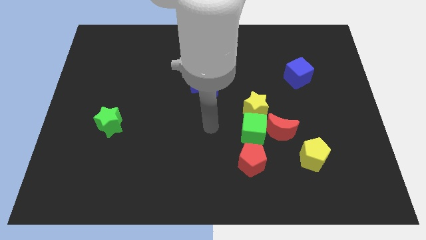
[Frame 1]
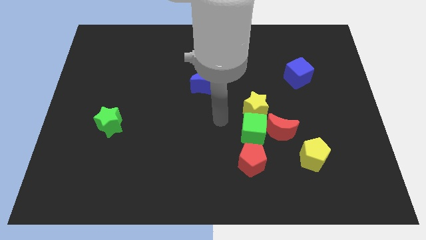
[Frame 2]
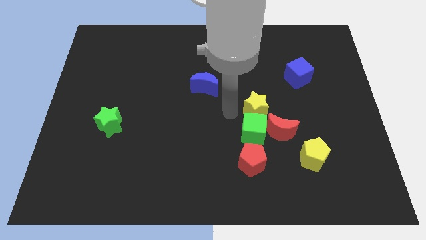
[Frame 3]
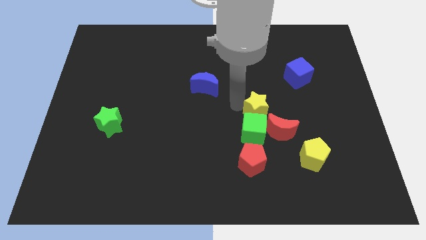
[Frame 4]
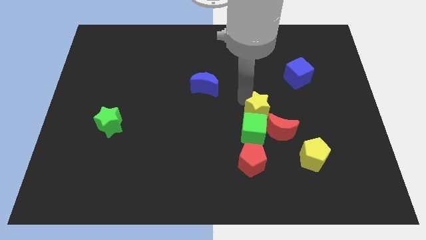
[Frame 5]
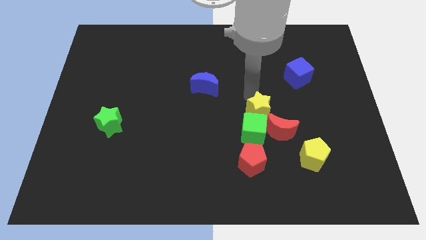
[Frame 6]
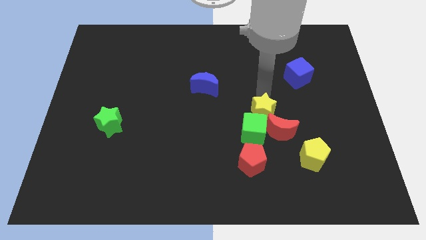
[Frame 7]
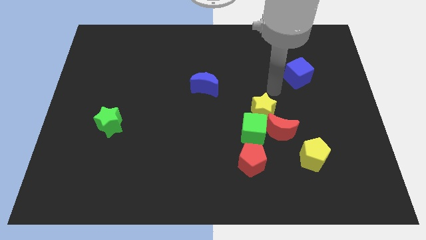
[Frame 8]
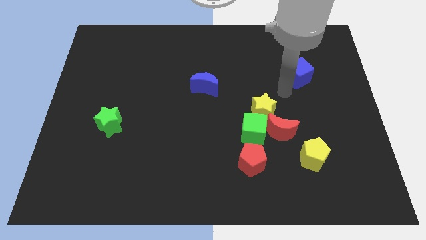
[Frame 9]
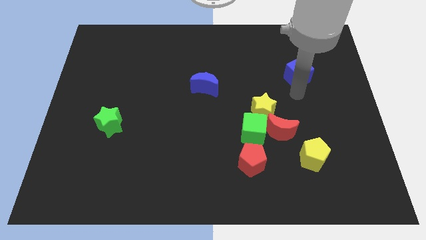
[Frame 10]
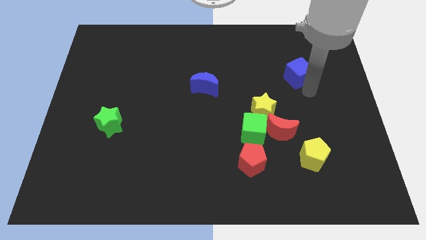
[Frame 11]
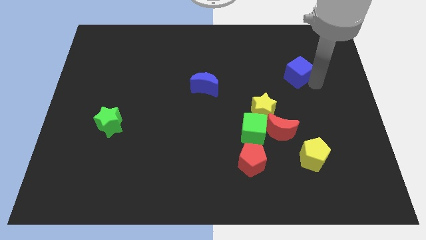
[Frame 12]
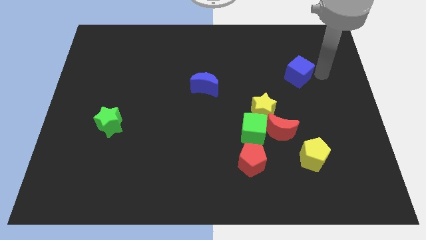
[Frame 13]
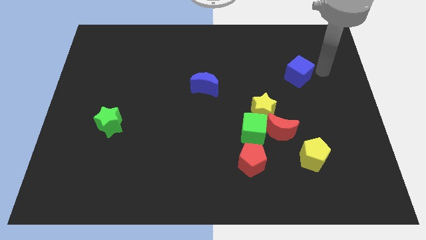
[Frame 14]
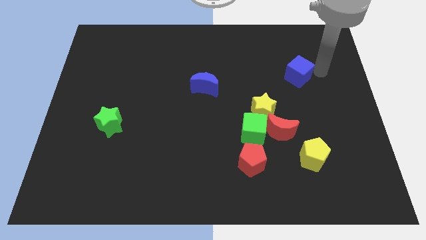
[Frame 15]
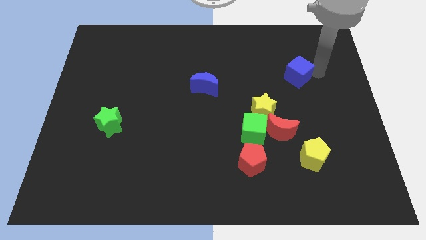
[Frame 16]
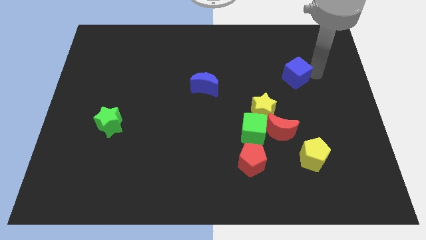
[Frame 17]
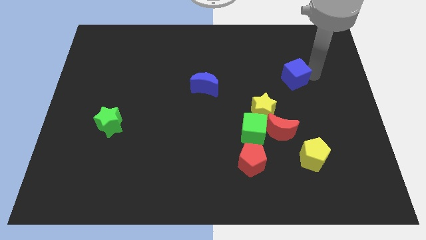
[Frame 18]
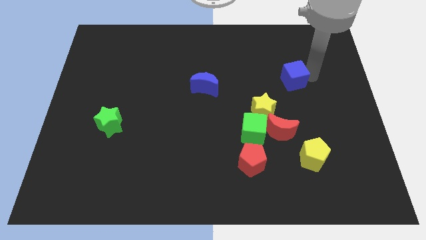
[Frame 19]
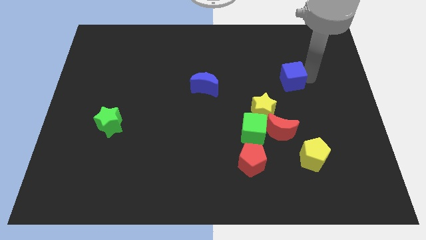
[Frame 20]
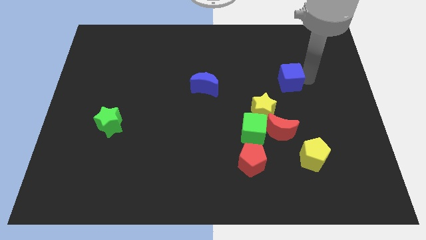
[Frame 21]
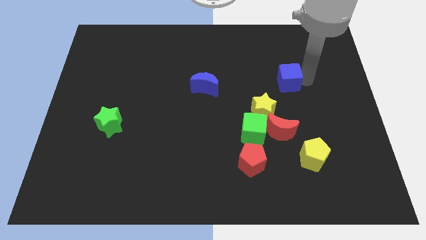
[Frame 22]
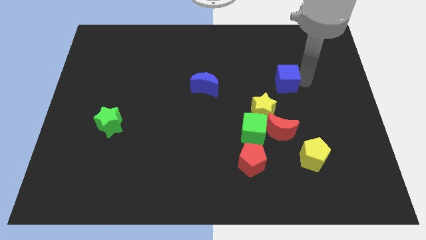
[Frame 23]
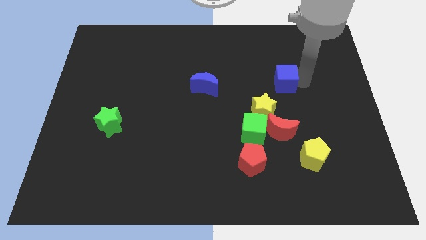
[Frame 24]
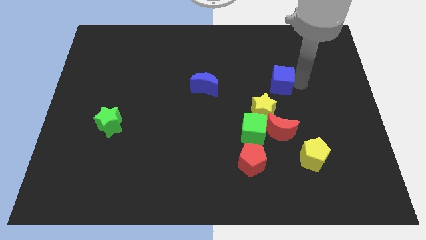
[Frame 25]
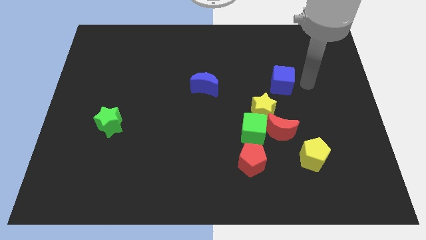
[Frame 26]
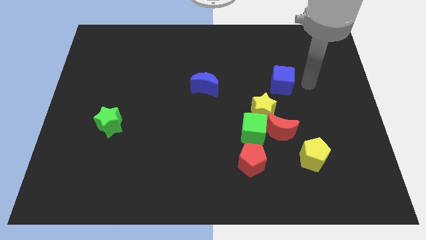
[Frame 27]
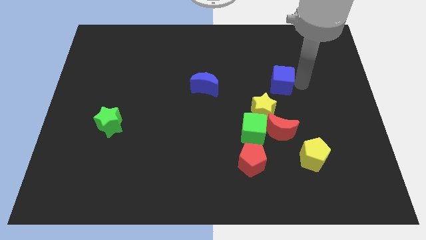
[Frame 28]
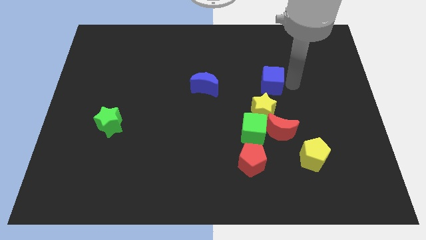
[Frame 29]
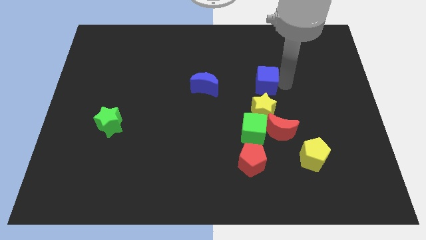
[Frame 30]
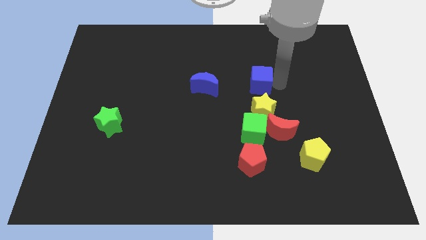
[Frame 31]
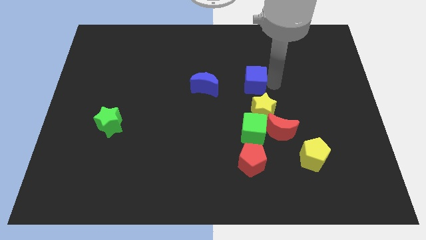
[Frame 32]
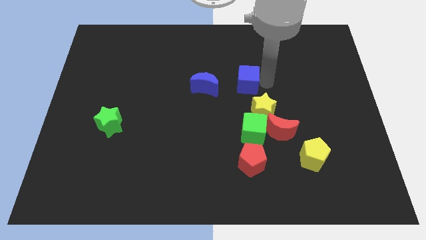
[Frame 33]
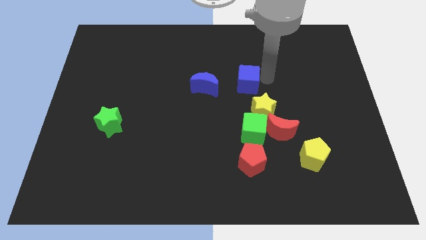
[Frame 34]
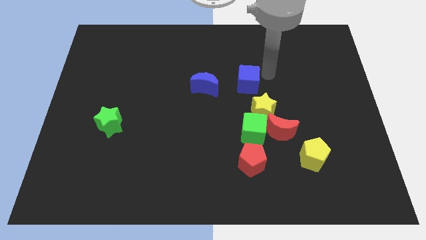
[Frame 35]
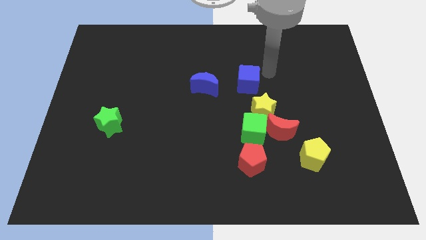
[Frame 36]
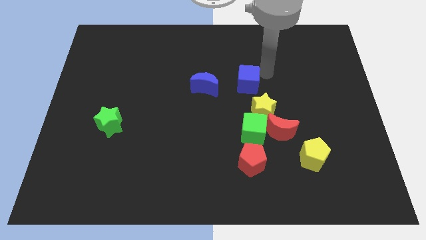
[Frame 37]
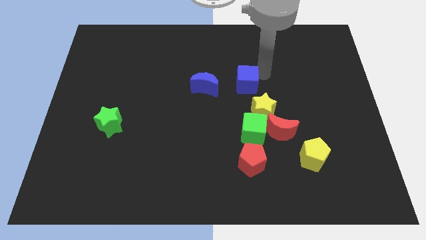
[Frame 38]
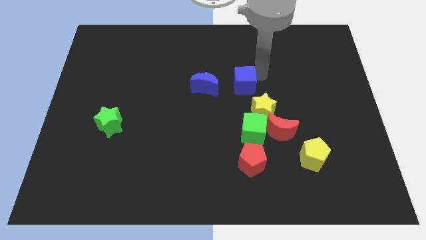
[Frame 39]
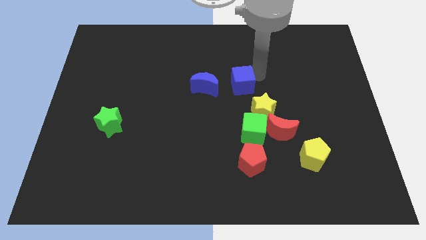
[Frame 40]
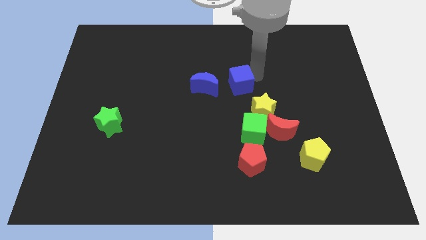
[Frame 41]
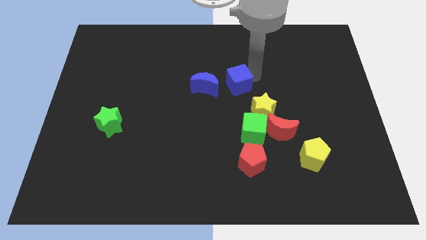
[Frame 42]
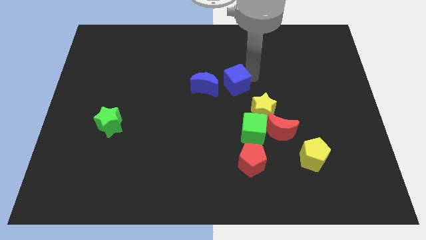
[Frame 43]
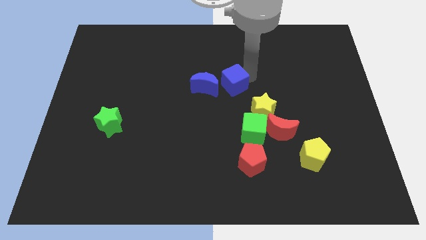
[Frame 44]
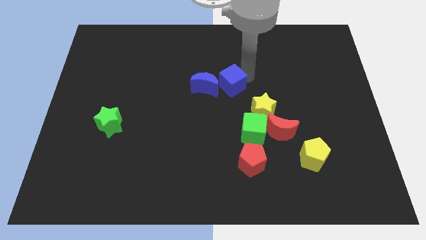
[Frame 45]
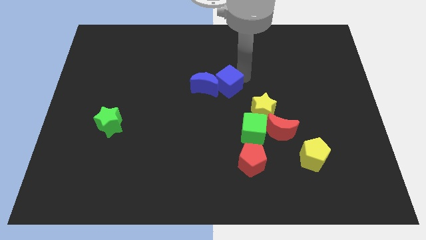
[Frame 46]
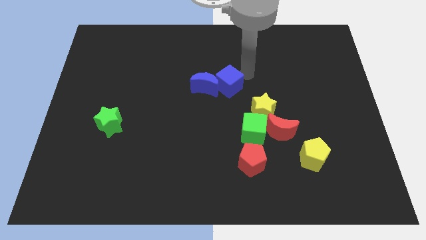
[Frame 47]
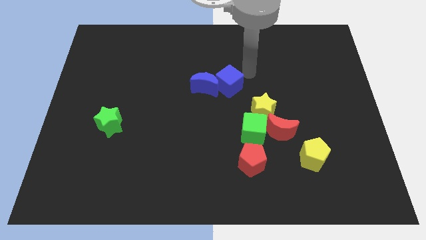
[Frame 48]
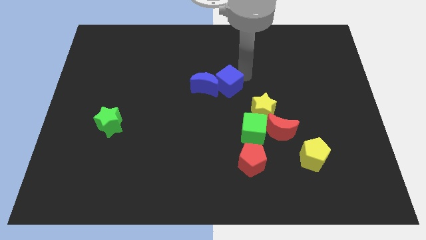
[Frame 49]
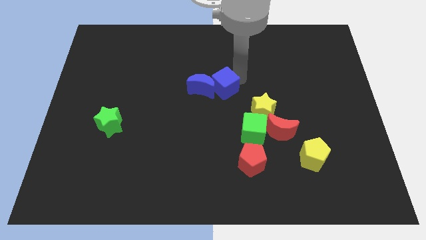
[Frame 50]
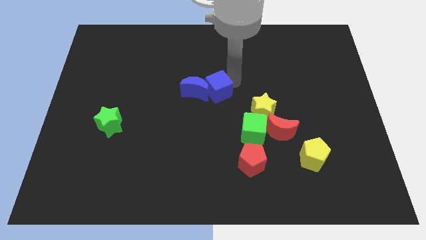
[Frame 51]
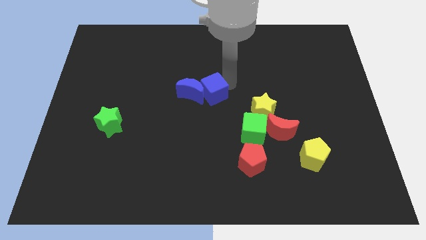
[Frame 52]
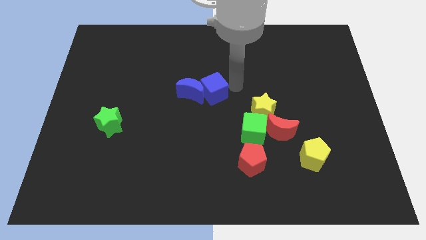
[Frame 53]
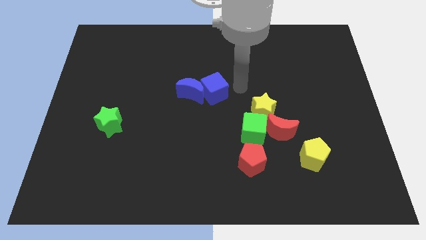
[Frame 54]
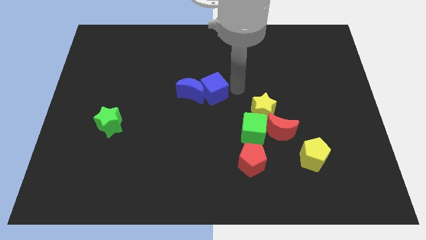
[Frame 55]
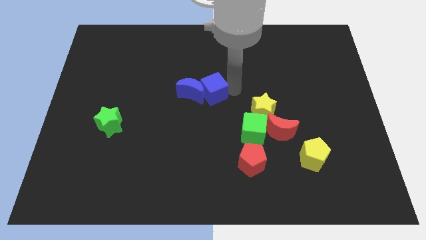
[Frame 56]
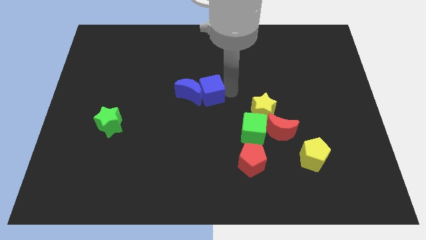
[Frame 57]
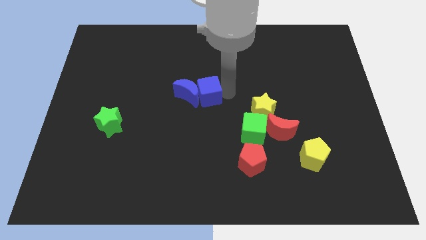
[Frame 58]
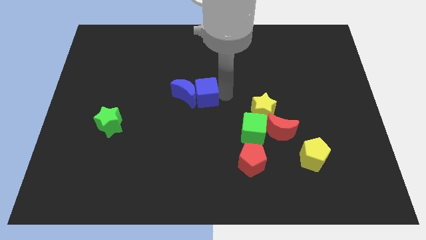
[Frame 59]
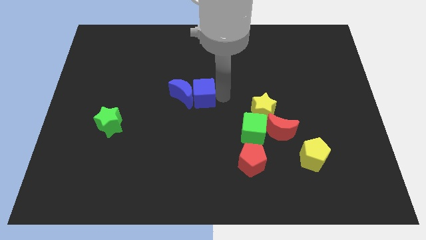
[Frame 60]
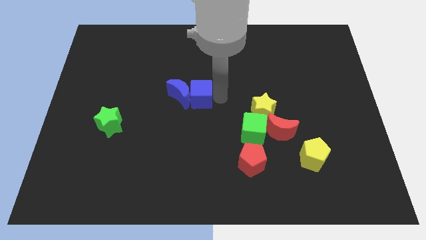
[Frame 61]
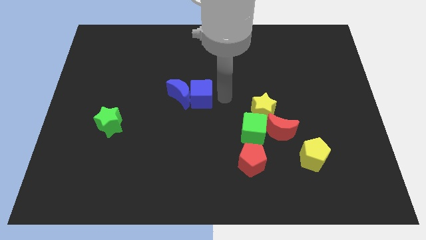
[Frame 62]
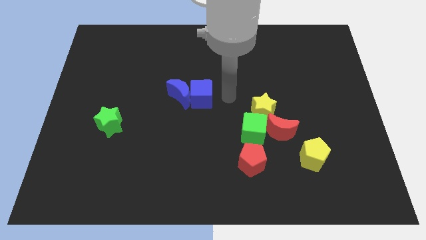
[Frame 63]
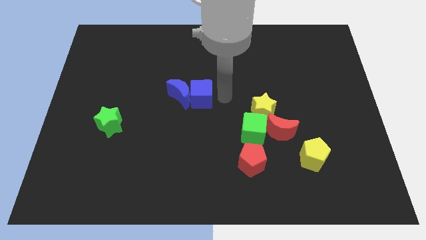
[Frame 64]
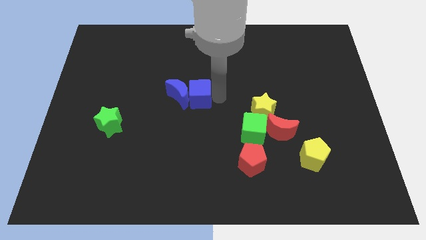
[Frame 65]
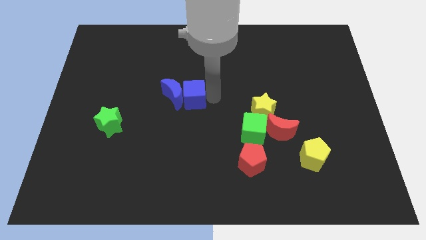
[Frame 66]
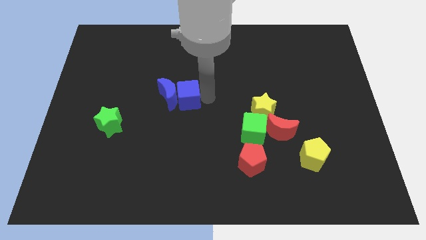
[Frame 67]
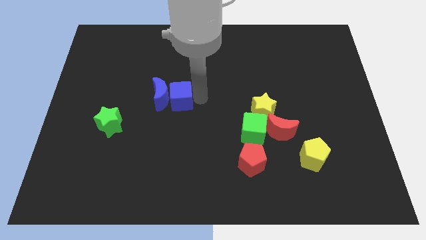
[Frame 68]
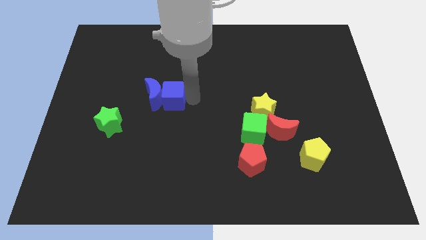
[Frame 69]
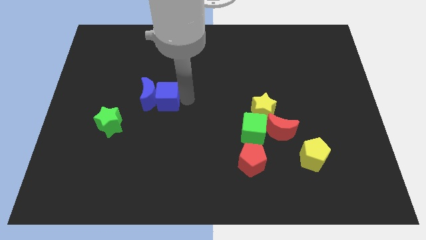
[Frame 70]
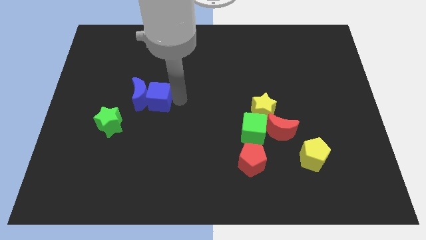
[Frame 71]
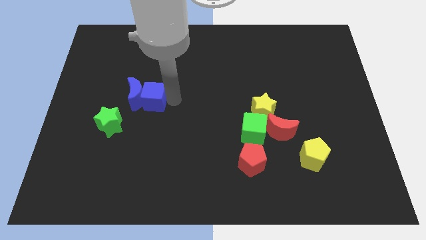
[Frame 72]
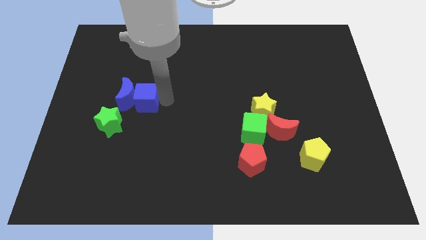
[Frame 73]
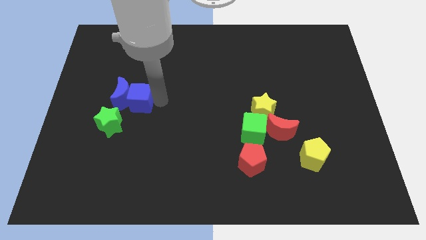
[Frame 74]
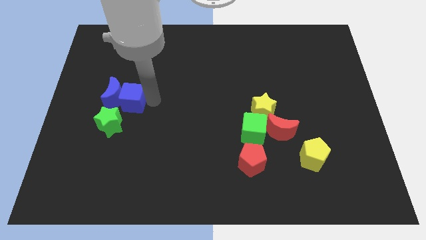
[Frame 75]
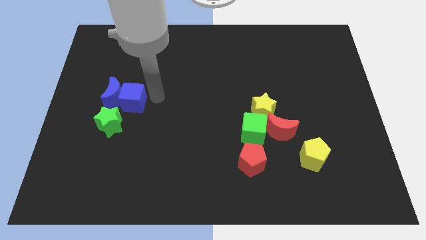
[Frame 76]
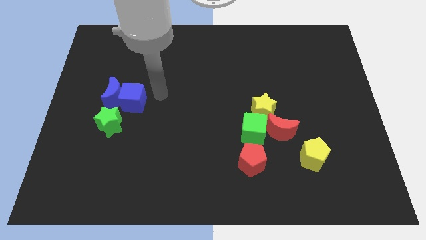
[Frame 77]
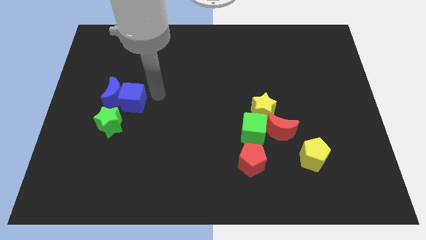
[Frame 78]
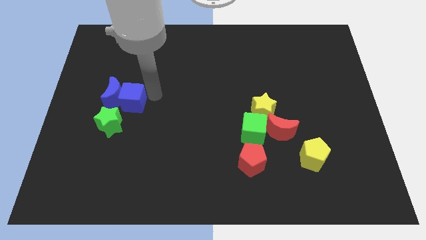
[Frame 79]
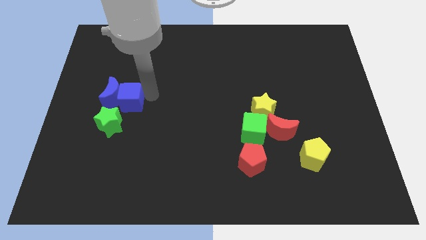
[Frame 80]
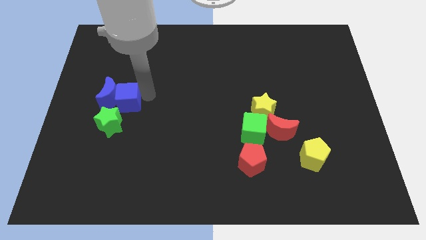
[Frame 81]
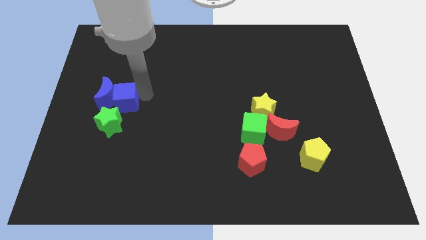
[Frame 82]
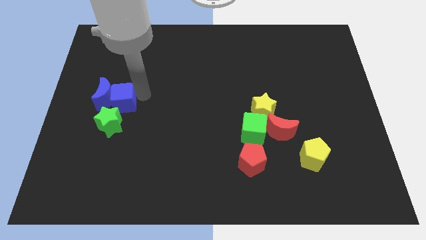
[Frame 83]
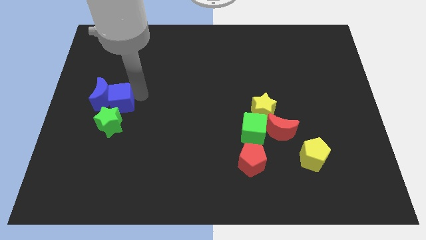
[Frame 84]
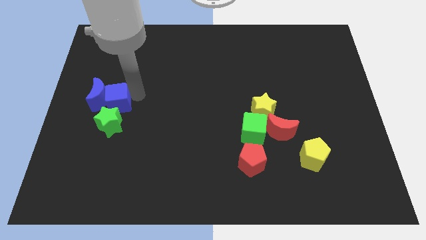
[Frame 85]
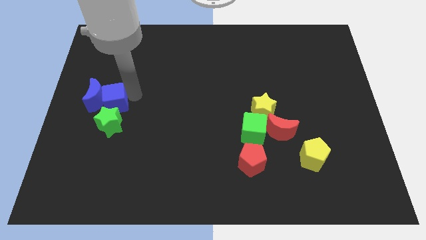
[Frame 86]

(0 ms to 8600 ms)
move the blue cube to the top left of the green star
